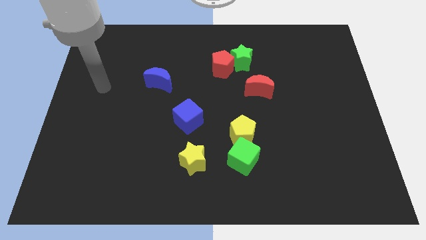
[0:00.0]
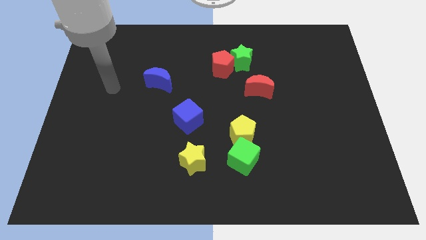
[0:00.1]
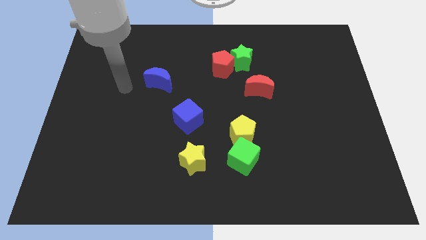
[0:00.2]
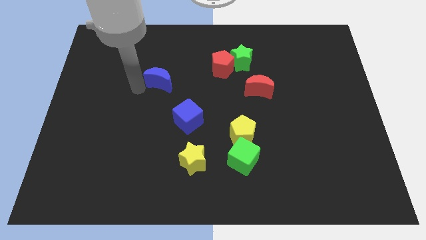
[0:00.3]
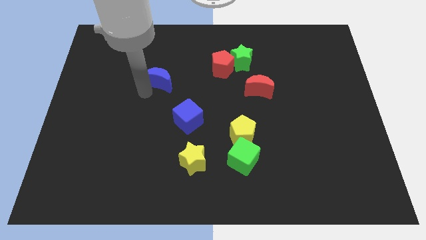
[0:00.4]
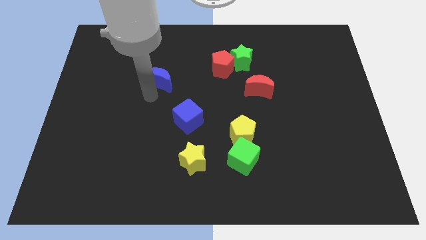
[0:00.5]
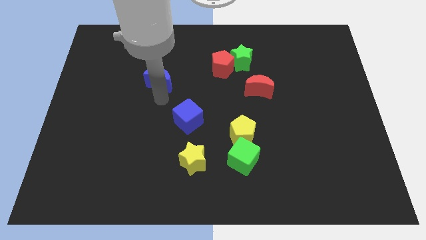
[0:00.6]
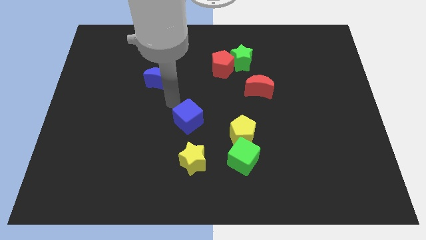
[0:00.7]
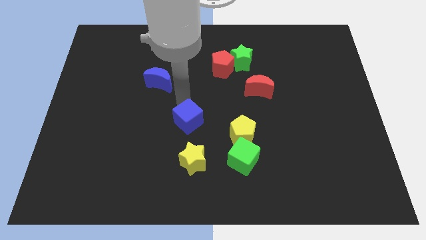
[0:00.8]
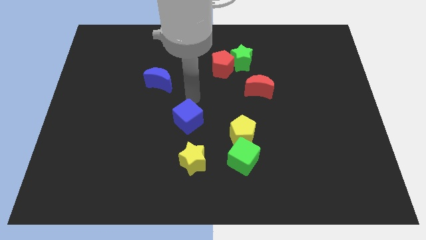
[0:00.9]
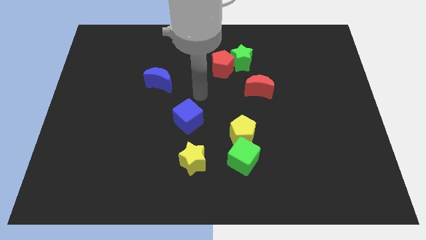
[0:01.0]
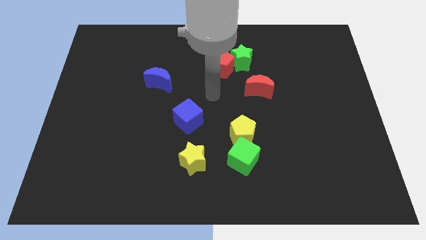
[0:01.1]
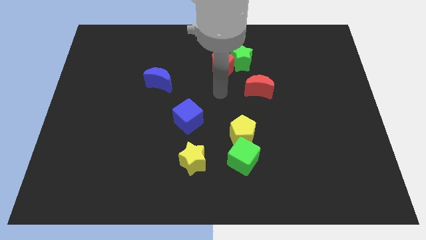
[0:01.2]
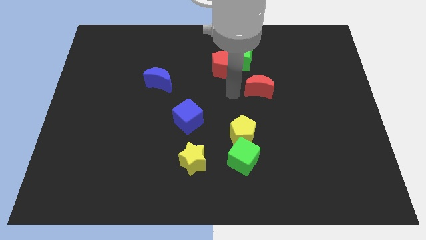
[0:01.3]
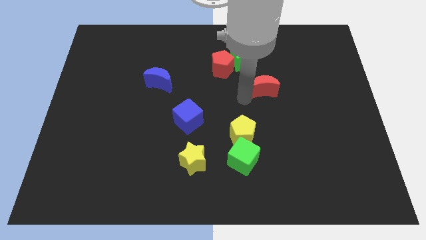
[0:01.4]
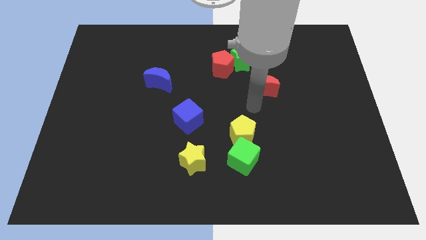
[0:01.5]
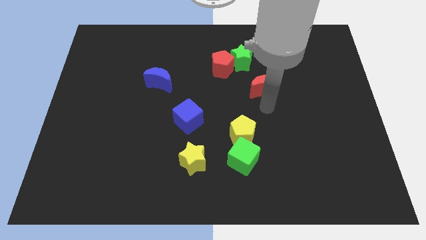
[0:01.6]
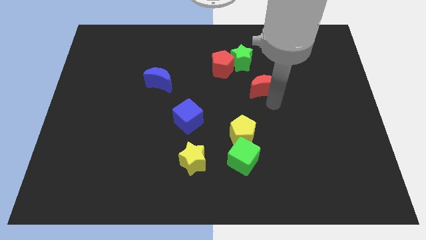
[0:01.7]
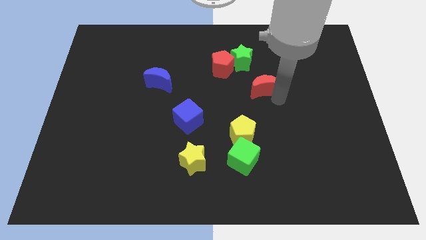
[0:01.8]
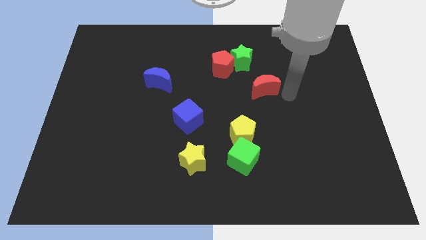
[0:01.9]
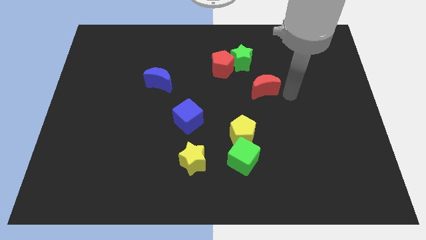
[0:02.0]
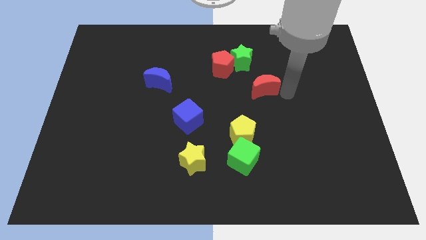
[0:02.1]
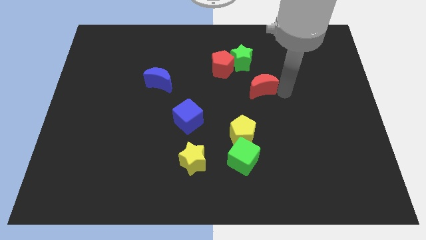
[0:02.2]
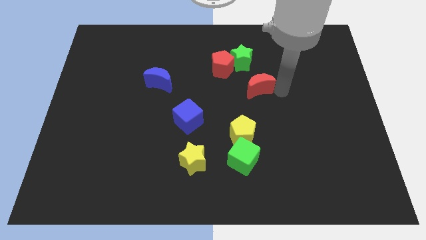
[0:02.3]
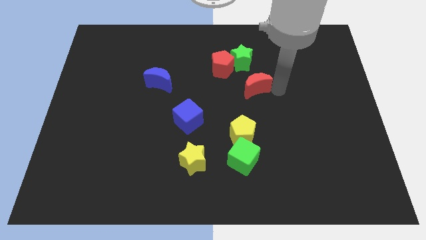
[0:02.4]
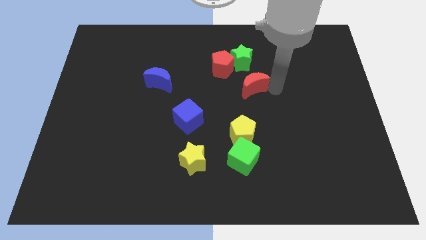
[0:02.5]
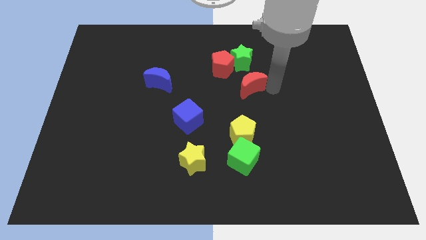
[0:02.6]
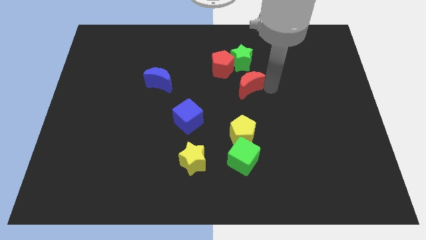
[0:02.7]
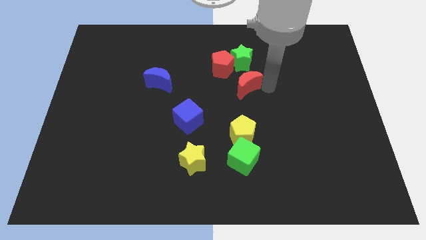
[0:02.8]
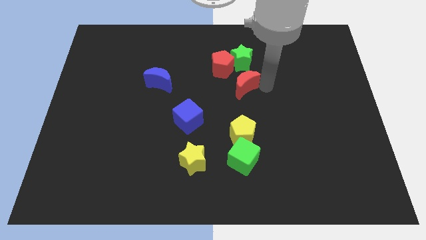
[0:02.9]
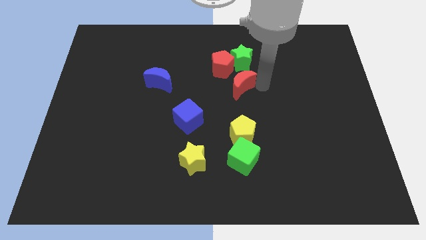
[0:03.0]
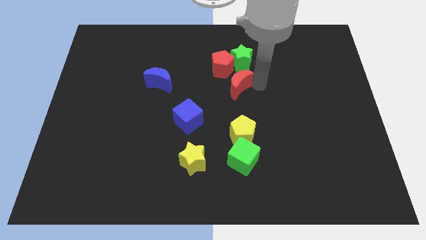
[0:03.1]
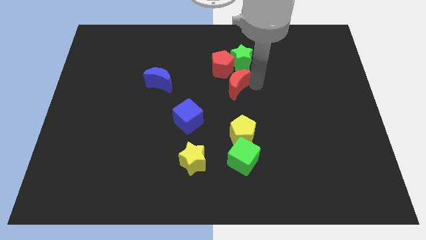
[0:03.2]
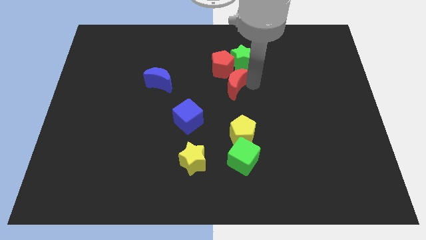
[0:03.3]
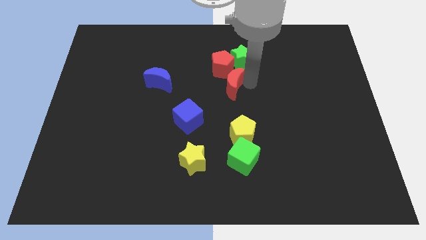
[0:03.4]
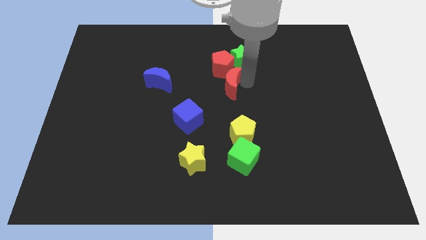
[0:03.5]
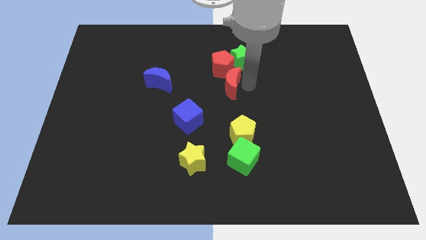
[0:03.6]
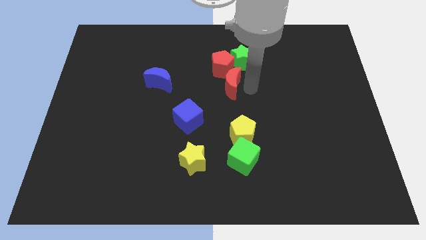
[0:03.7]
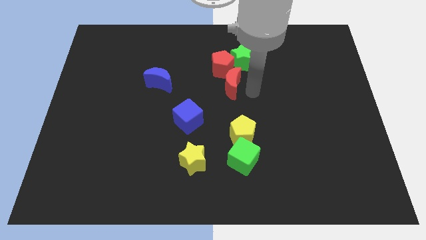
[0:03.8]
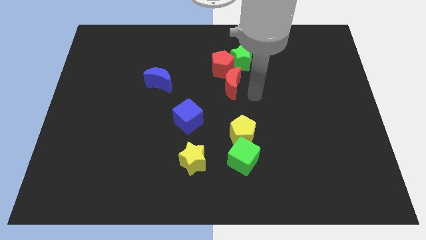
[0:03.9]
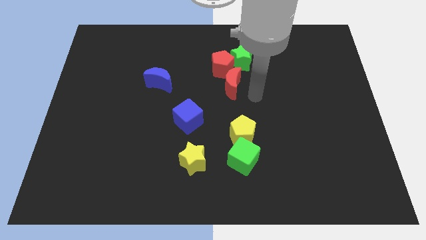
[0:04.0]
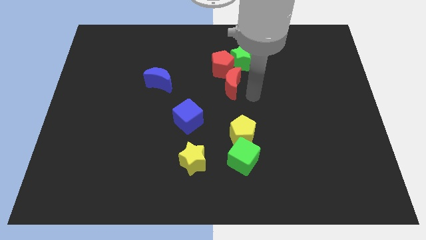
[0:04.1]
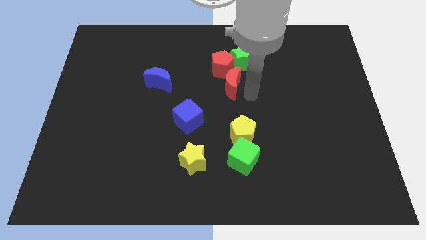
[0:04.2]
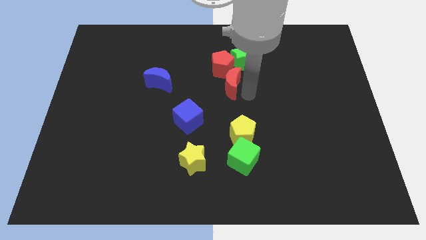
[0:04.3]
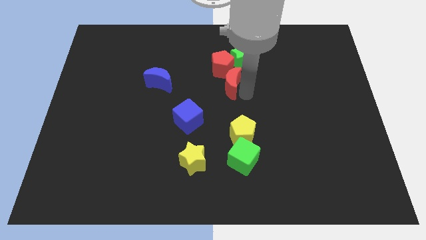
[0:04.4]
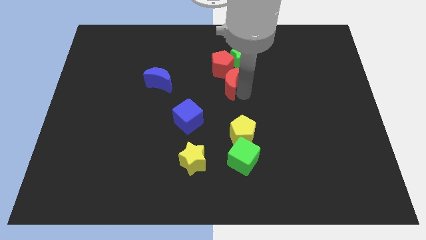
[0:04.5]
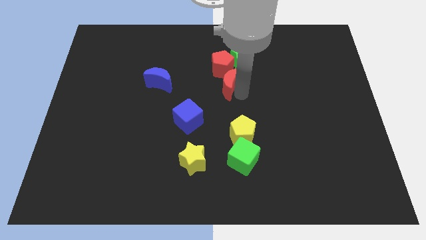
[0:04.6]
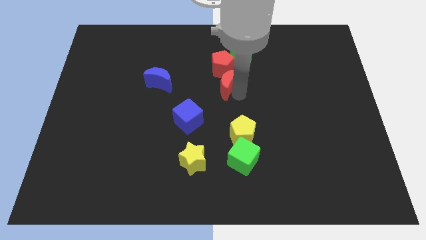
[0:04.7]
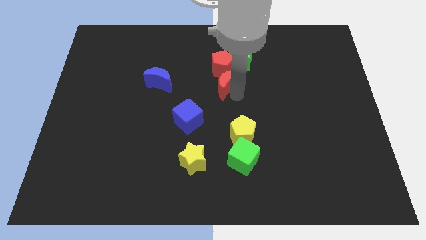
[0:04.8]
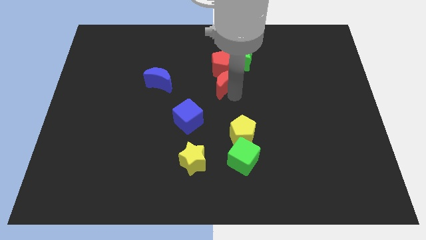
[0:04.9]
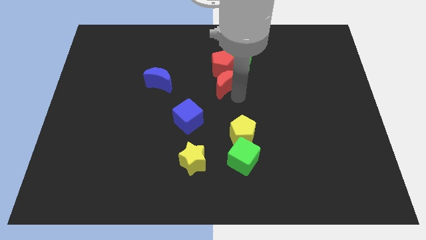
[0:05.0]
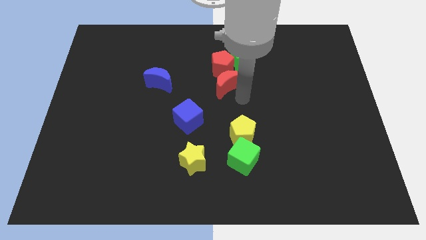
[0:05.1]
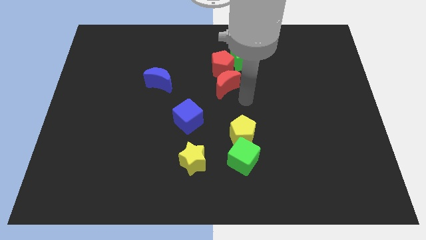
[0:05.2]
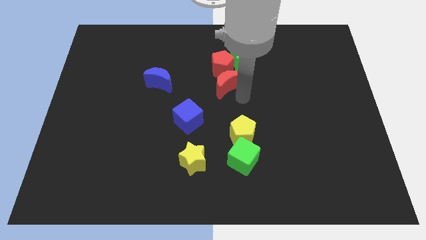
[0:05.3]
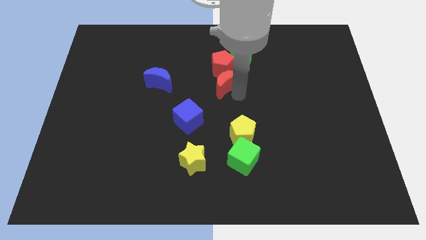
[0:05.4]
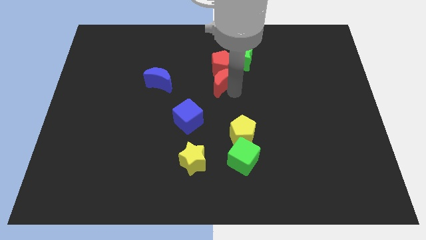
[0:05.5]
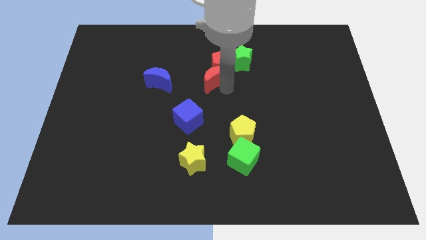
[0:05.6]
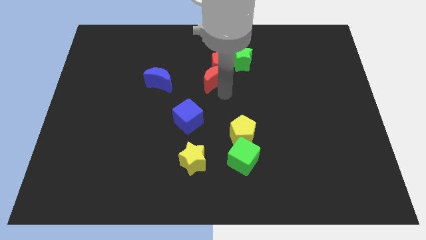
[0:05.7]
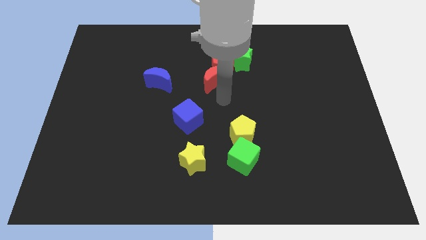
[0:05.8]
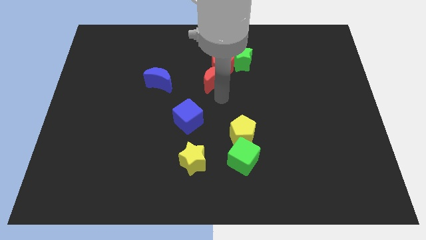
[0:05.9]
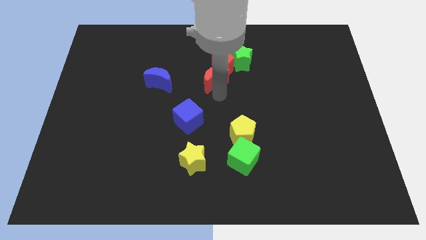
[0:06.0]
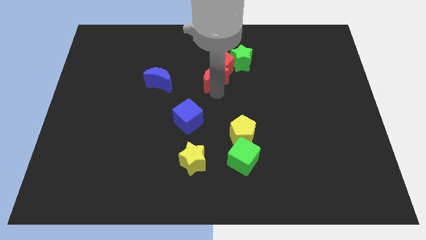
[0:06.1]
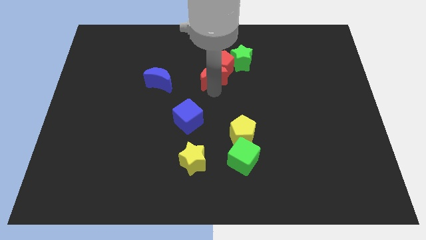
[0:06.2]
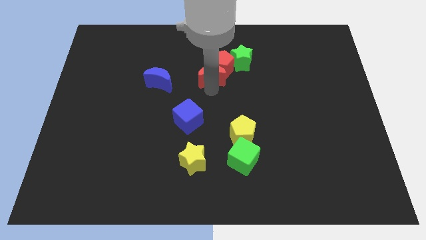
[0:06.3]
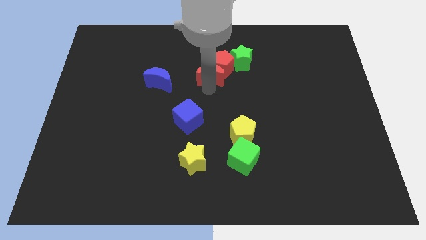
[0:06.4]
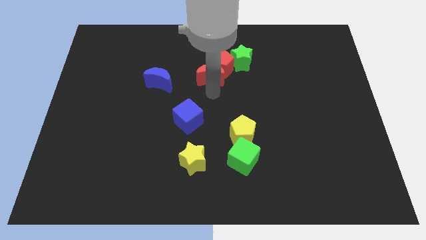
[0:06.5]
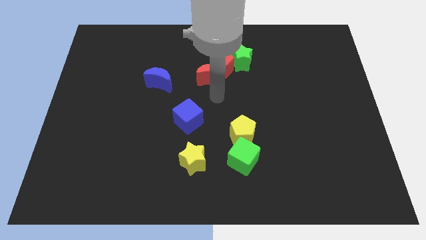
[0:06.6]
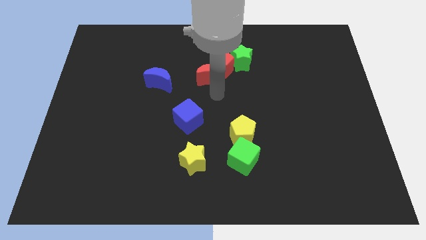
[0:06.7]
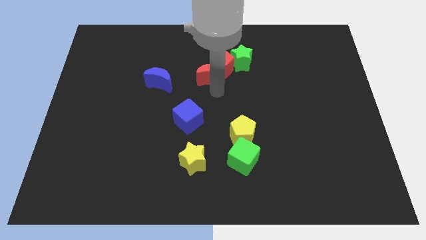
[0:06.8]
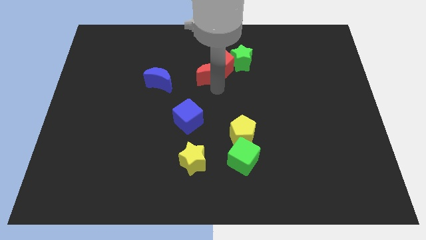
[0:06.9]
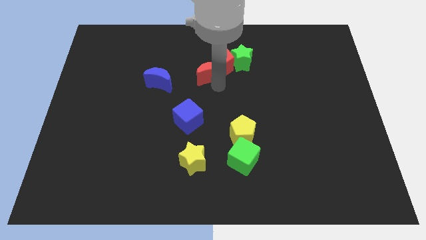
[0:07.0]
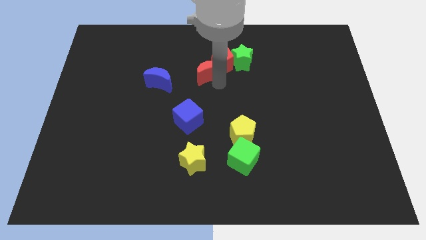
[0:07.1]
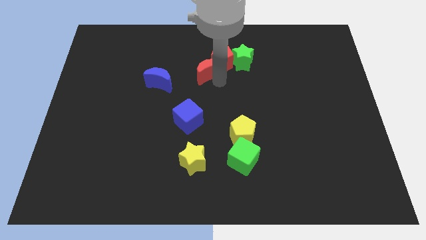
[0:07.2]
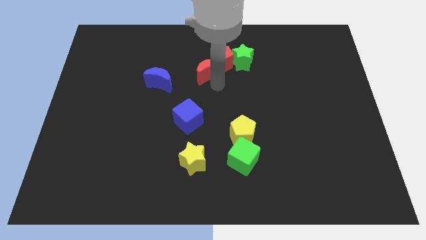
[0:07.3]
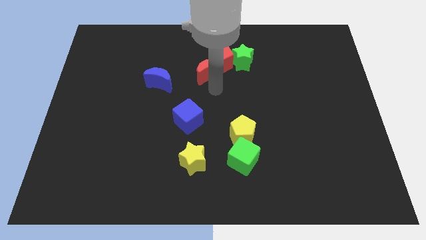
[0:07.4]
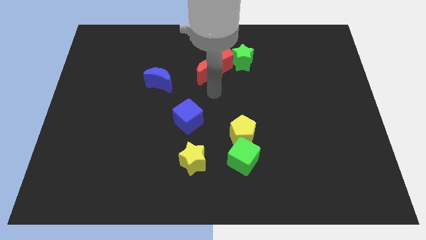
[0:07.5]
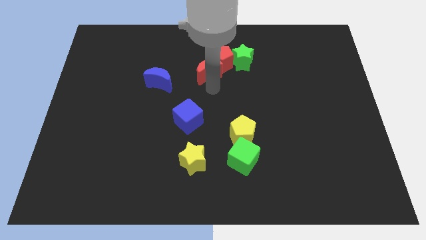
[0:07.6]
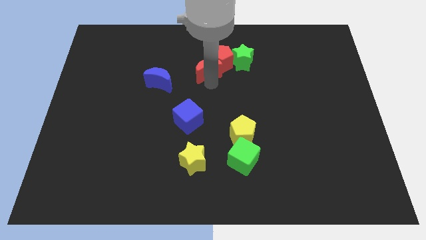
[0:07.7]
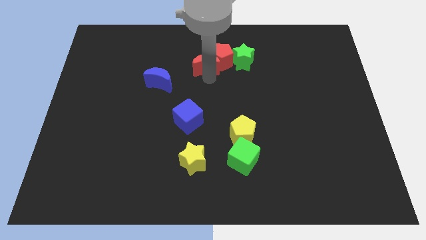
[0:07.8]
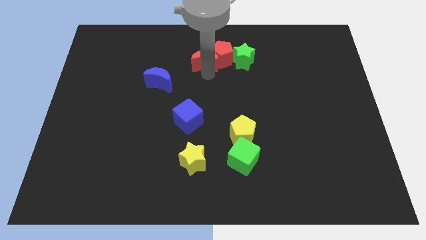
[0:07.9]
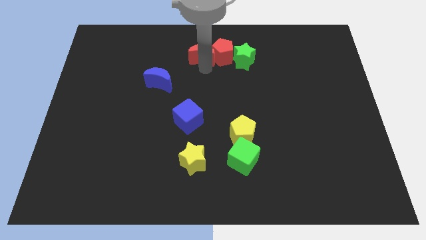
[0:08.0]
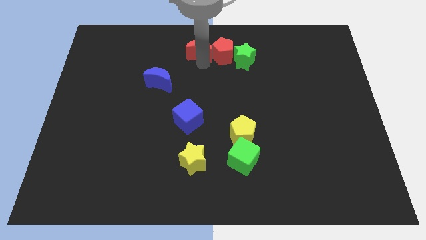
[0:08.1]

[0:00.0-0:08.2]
move the red moon to the top
